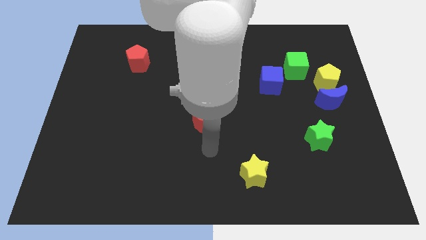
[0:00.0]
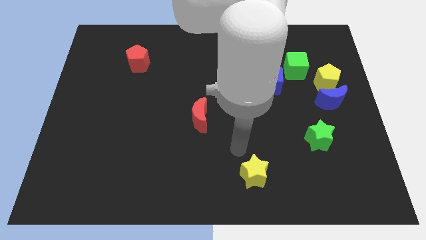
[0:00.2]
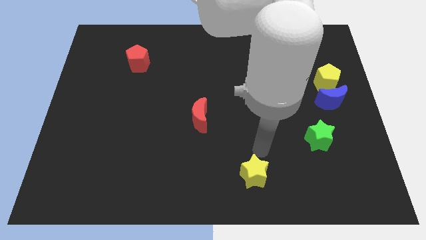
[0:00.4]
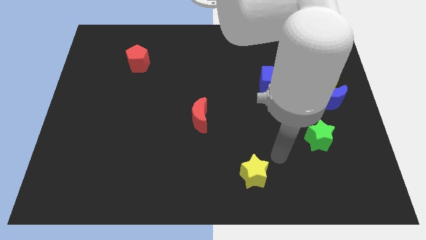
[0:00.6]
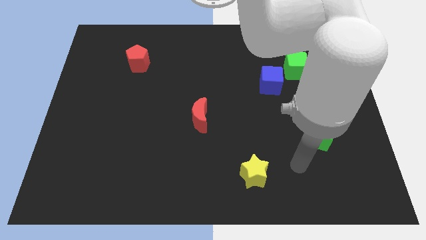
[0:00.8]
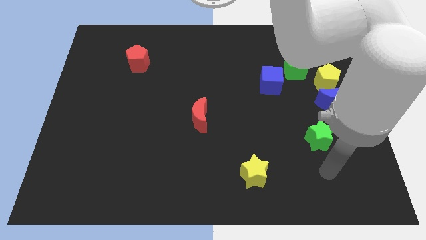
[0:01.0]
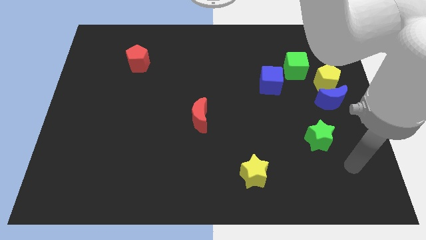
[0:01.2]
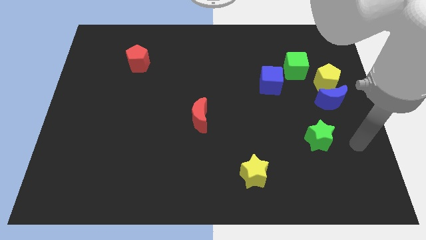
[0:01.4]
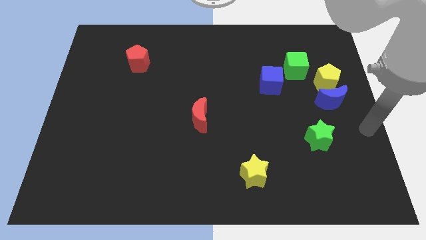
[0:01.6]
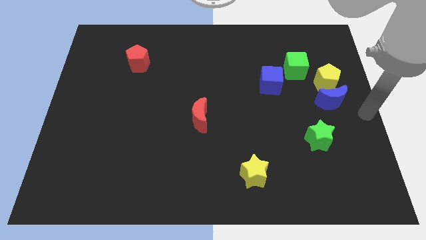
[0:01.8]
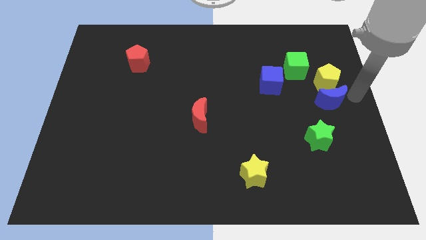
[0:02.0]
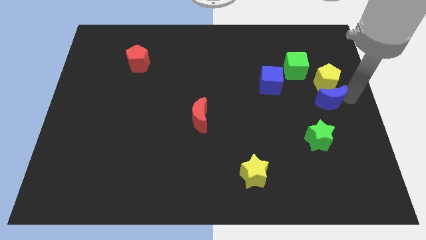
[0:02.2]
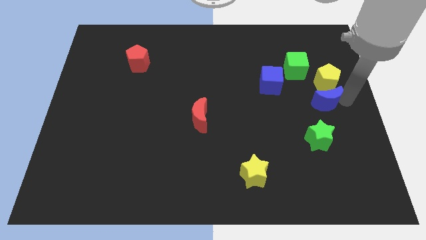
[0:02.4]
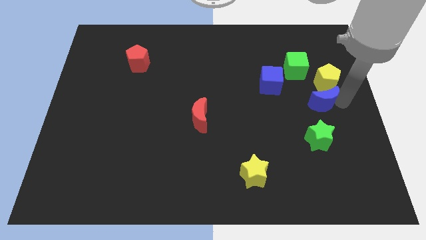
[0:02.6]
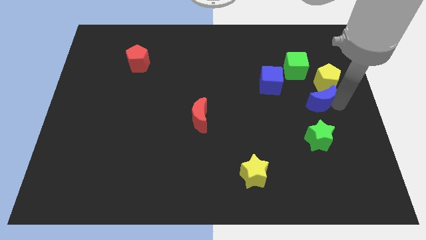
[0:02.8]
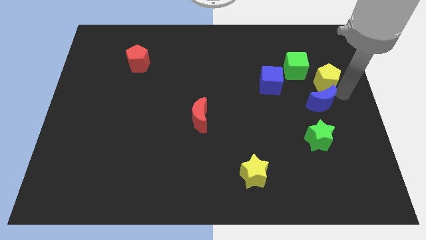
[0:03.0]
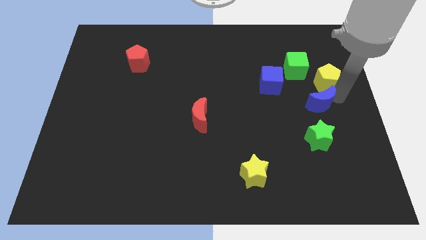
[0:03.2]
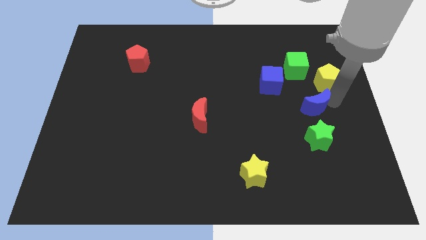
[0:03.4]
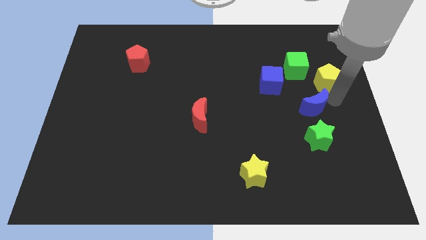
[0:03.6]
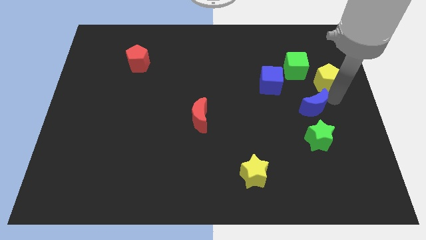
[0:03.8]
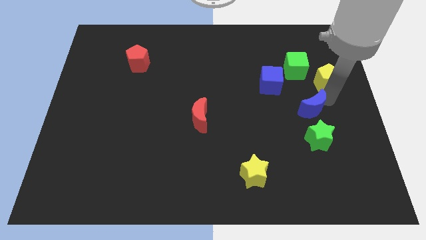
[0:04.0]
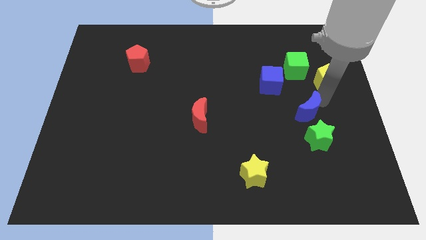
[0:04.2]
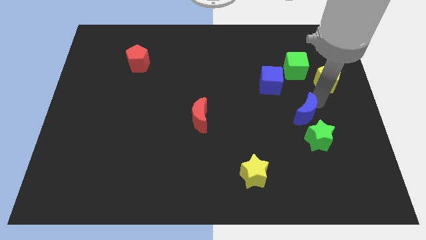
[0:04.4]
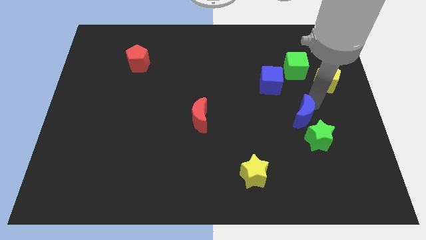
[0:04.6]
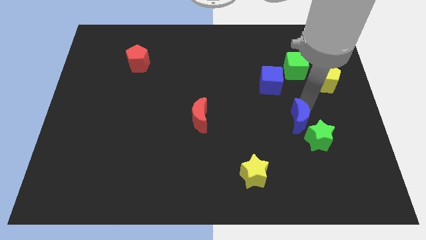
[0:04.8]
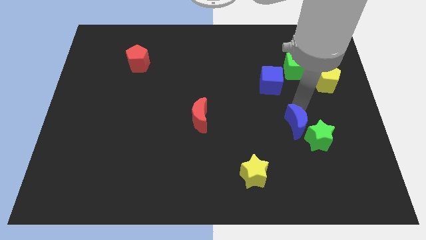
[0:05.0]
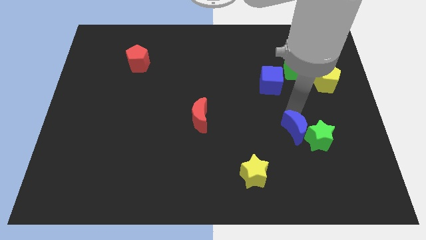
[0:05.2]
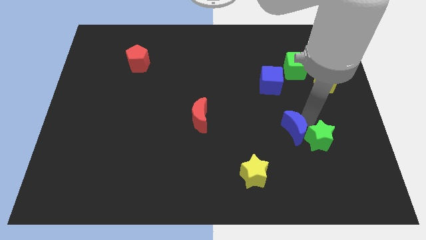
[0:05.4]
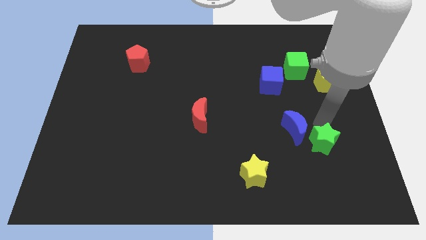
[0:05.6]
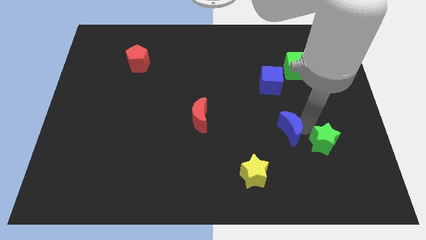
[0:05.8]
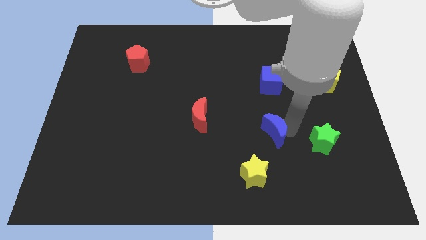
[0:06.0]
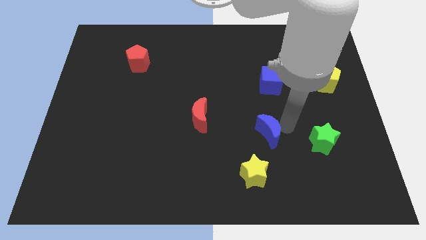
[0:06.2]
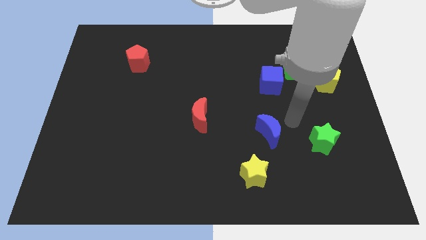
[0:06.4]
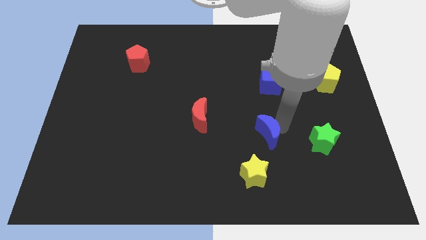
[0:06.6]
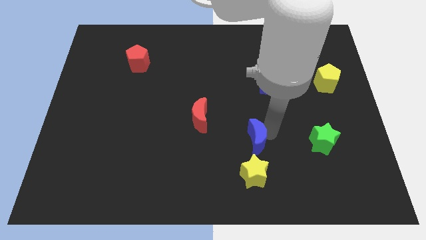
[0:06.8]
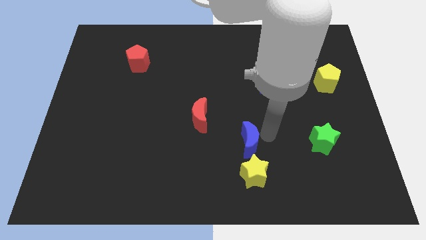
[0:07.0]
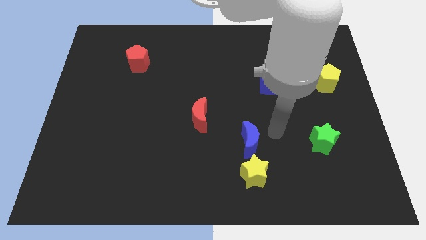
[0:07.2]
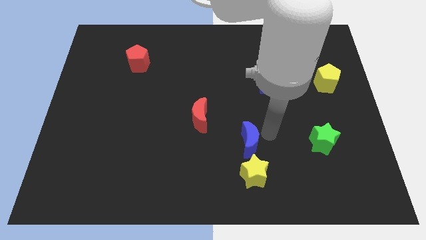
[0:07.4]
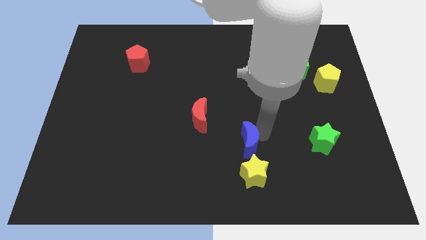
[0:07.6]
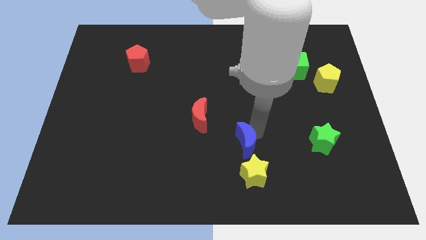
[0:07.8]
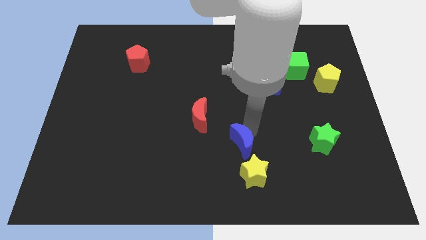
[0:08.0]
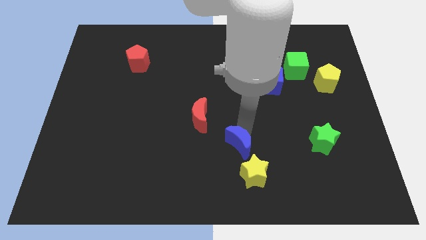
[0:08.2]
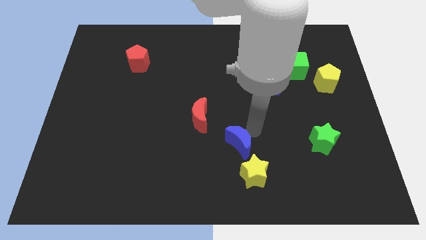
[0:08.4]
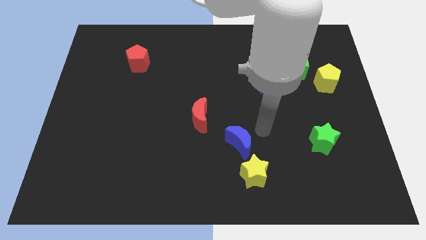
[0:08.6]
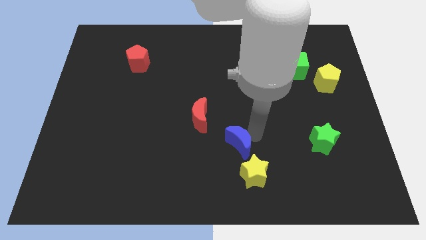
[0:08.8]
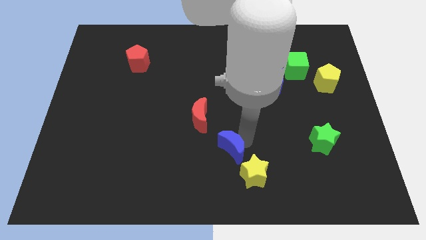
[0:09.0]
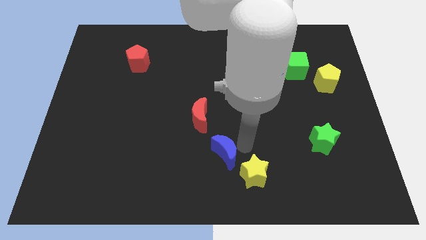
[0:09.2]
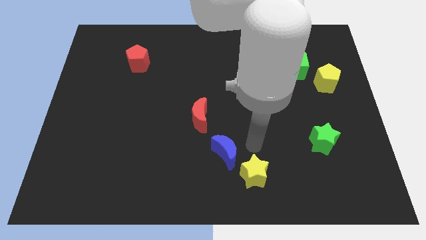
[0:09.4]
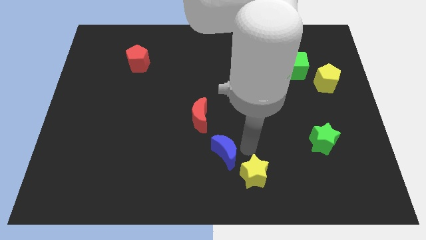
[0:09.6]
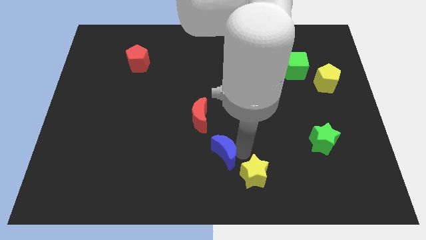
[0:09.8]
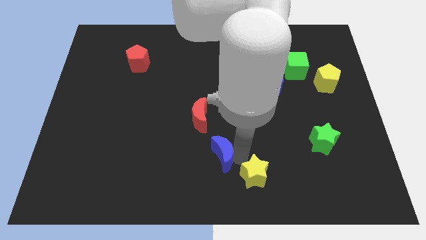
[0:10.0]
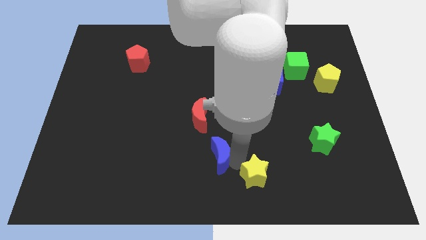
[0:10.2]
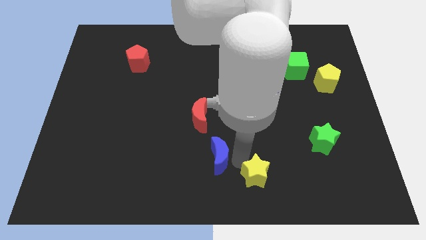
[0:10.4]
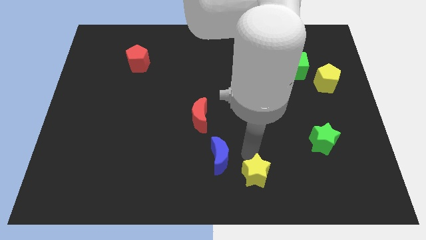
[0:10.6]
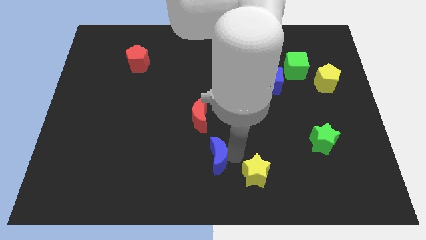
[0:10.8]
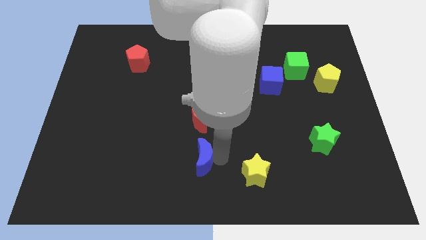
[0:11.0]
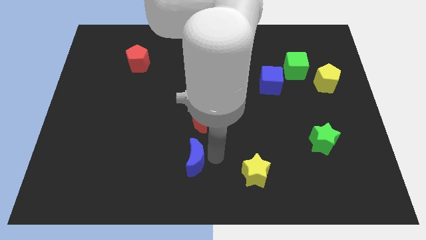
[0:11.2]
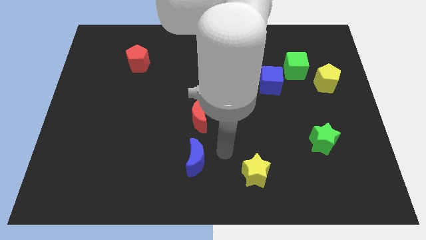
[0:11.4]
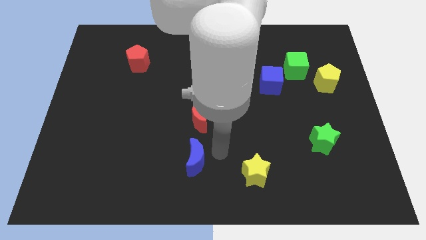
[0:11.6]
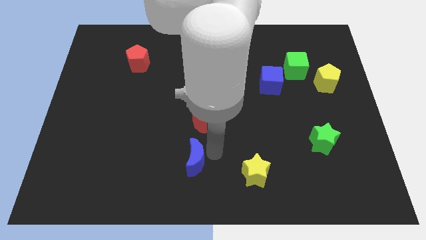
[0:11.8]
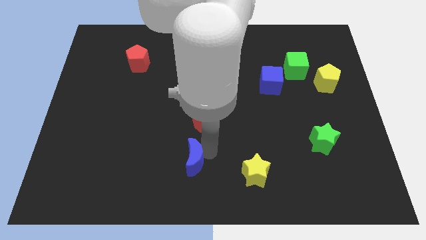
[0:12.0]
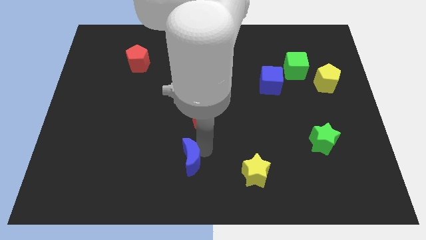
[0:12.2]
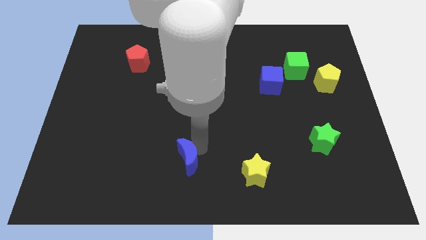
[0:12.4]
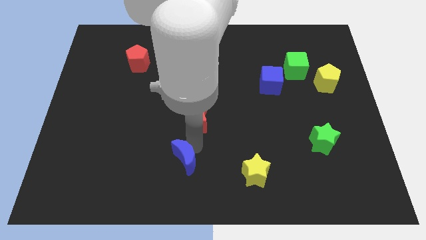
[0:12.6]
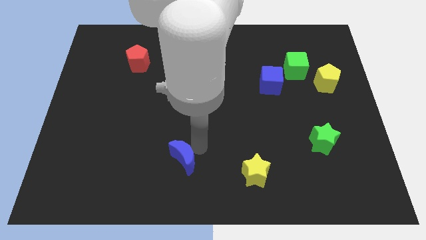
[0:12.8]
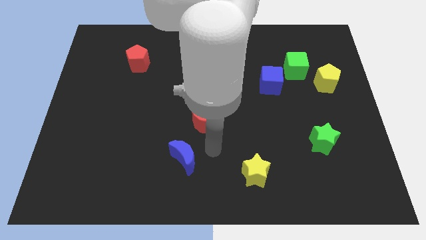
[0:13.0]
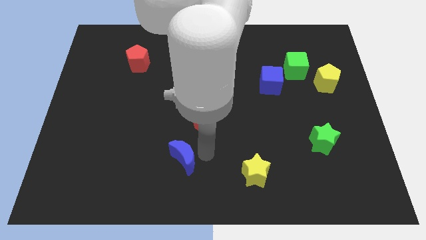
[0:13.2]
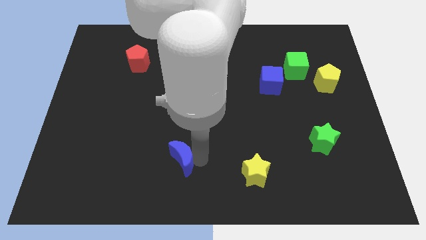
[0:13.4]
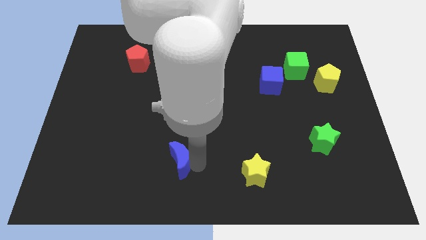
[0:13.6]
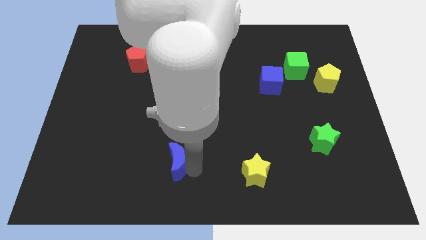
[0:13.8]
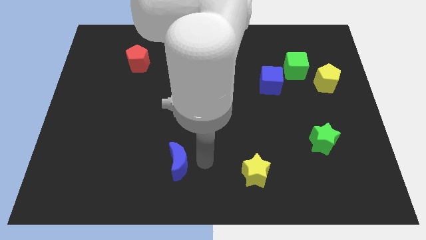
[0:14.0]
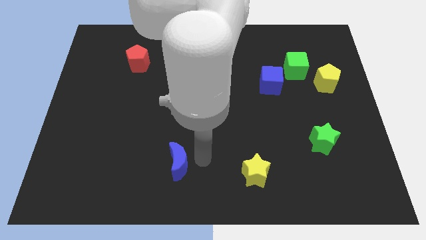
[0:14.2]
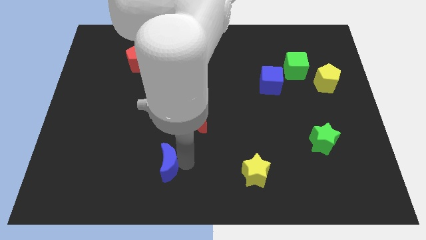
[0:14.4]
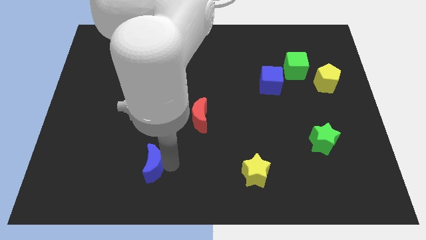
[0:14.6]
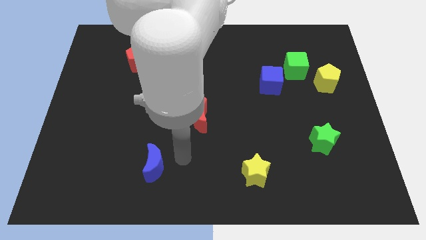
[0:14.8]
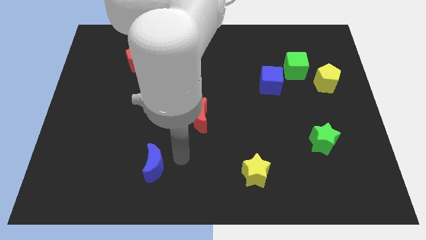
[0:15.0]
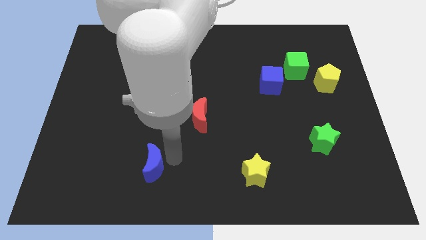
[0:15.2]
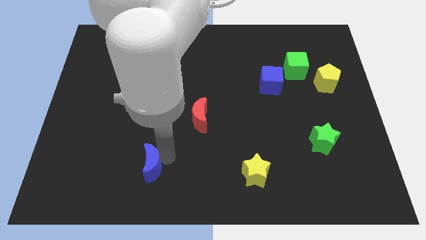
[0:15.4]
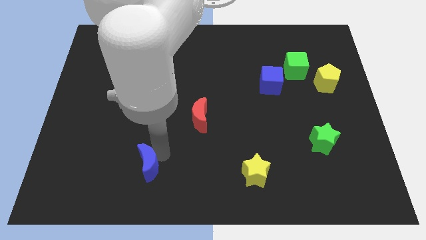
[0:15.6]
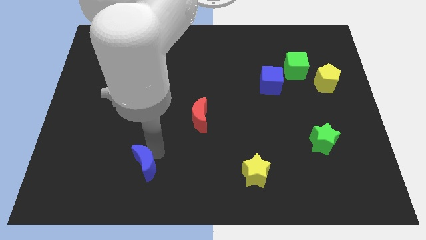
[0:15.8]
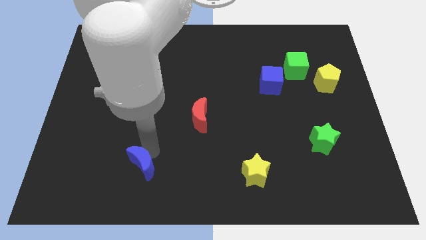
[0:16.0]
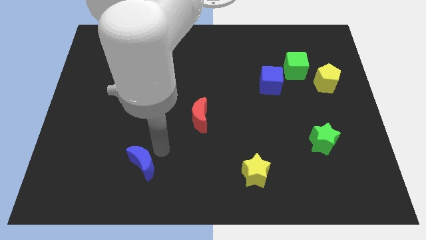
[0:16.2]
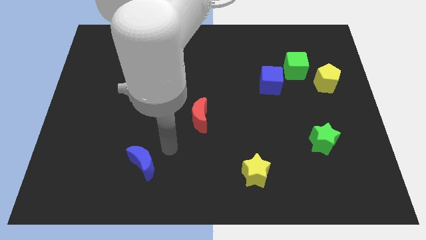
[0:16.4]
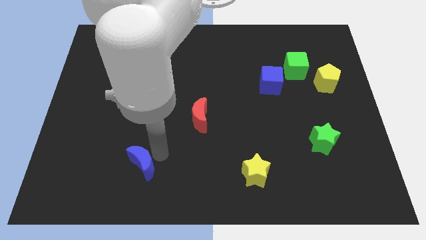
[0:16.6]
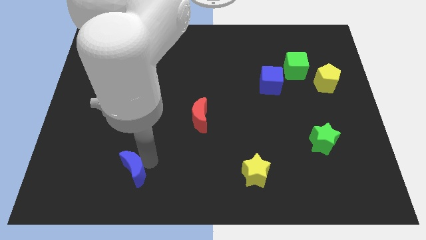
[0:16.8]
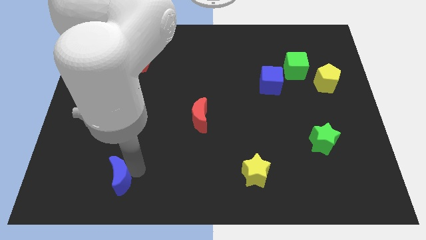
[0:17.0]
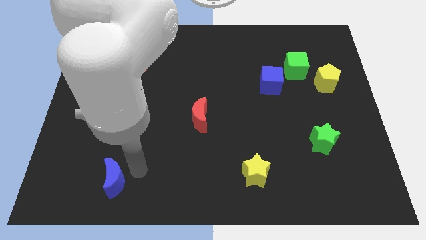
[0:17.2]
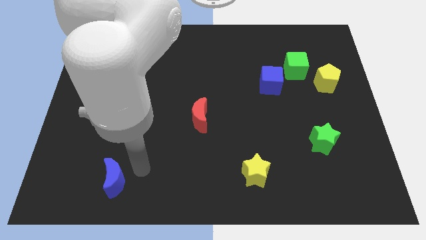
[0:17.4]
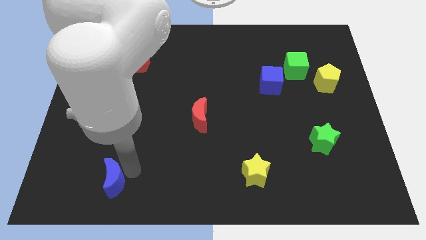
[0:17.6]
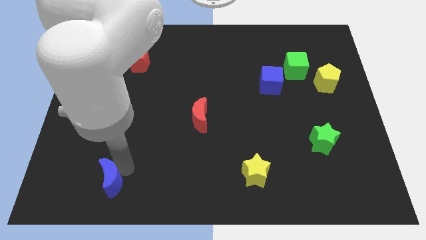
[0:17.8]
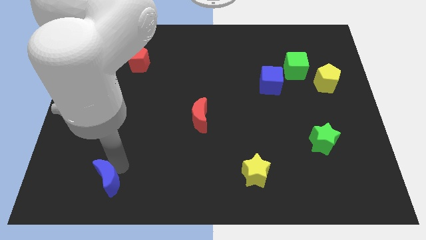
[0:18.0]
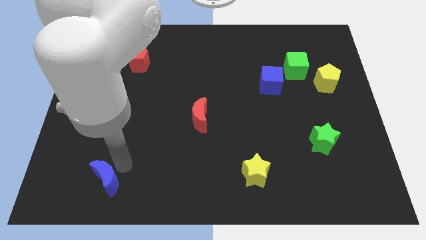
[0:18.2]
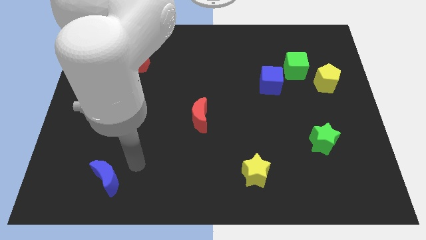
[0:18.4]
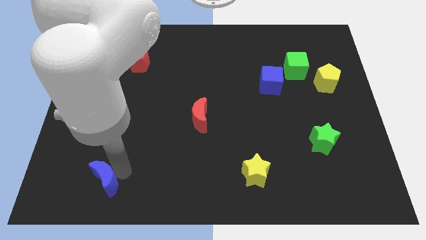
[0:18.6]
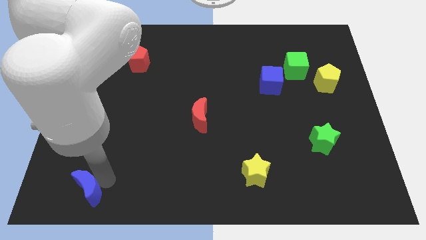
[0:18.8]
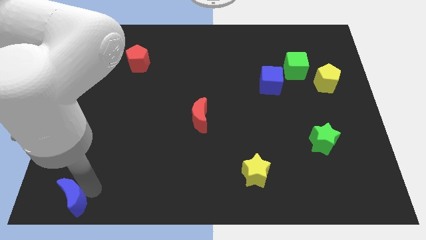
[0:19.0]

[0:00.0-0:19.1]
slide the blue moon to the bottom left of the board
